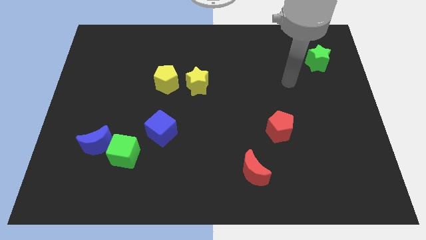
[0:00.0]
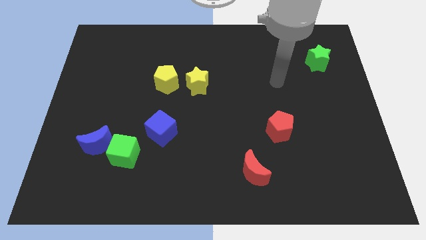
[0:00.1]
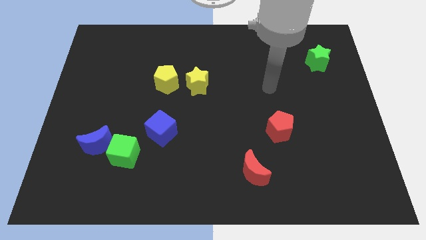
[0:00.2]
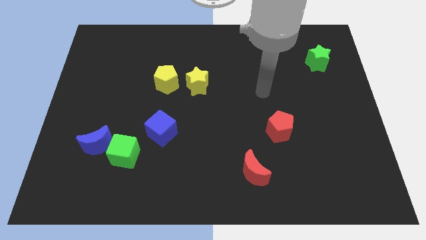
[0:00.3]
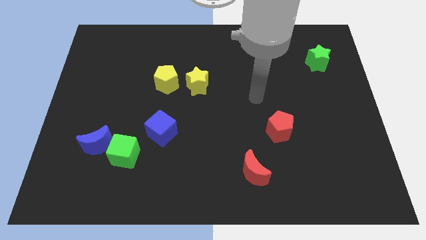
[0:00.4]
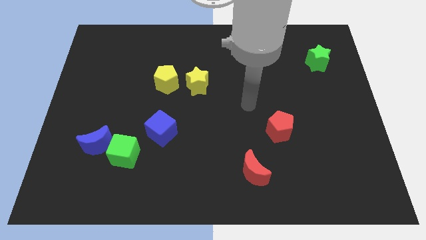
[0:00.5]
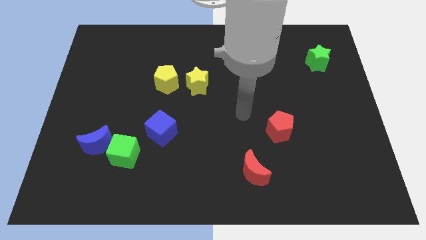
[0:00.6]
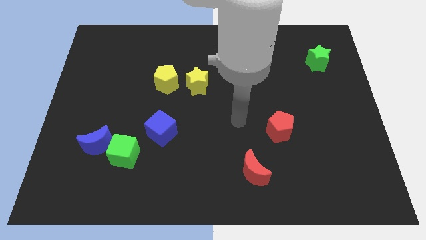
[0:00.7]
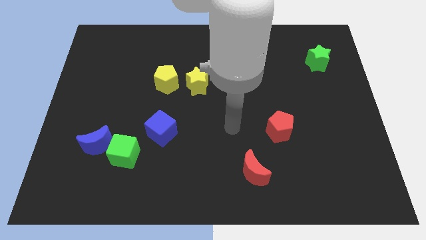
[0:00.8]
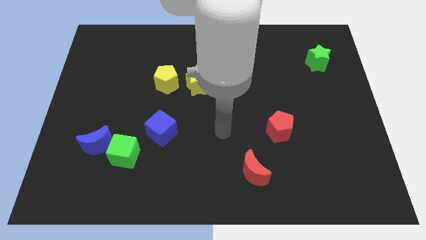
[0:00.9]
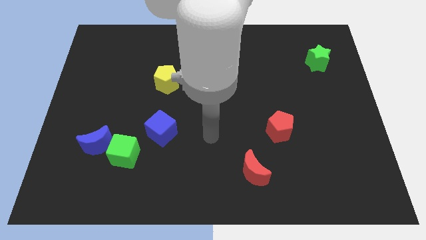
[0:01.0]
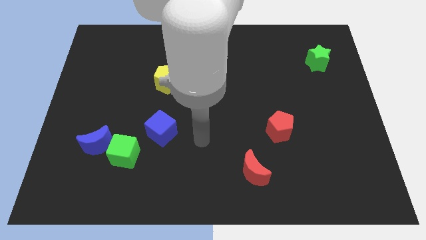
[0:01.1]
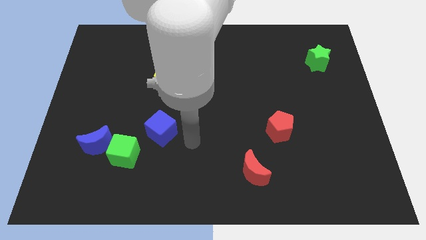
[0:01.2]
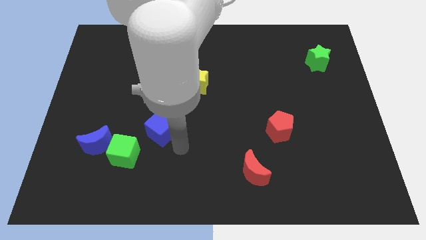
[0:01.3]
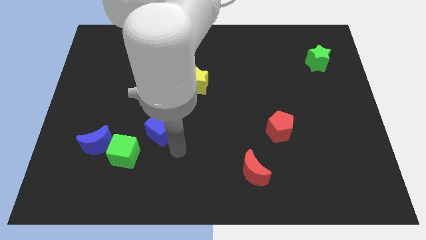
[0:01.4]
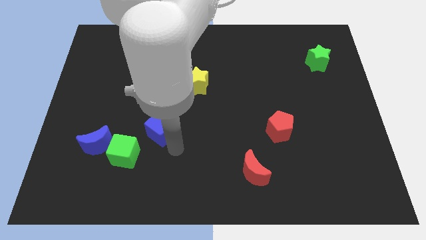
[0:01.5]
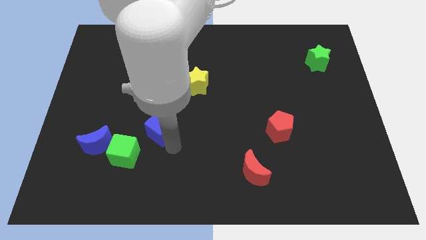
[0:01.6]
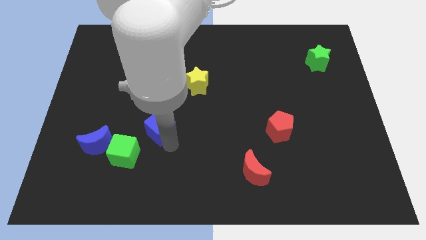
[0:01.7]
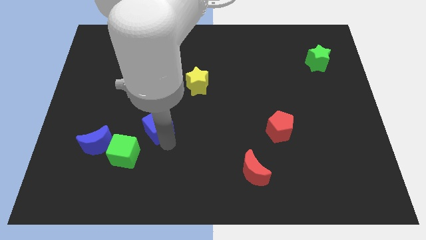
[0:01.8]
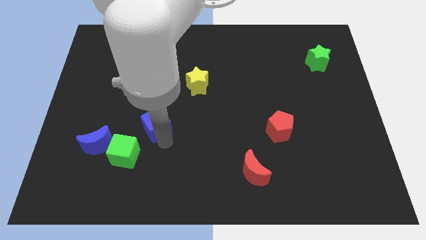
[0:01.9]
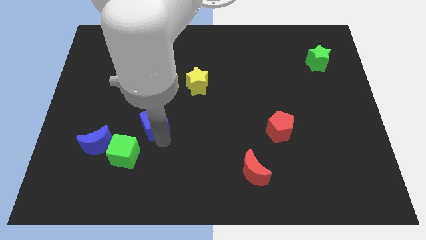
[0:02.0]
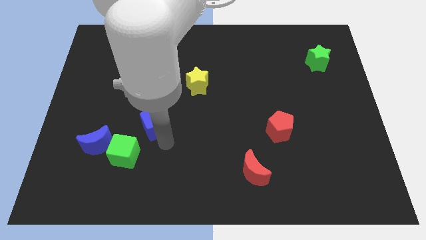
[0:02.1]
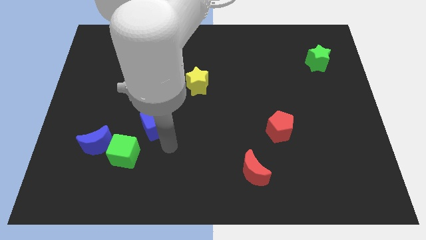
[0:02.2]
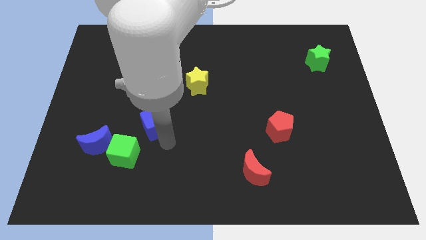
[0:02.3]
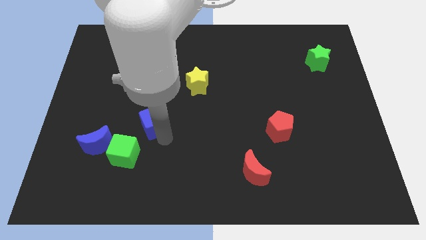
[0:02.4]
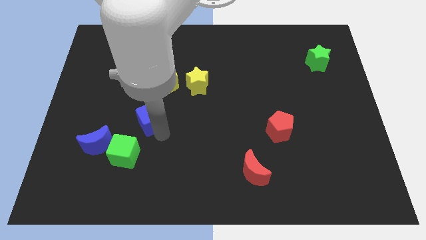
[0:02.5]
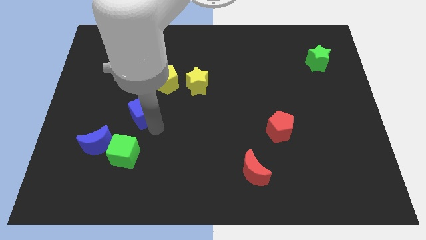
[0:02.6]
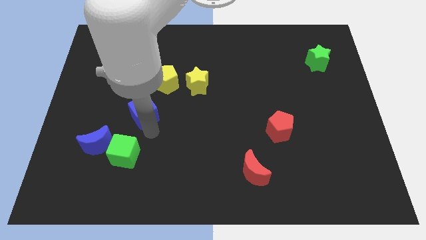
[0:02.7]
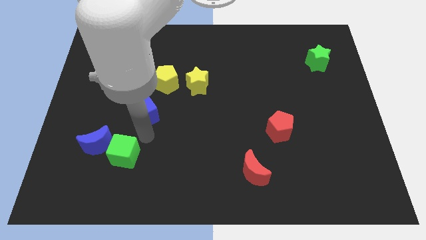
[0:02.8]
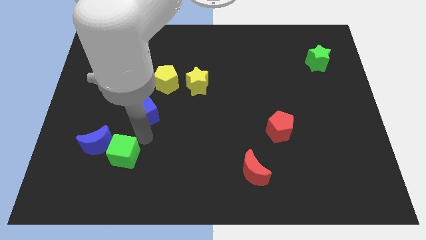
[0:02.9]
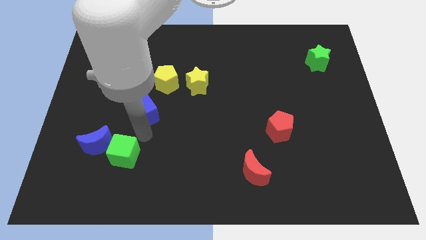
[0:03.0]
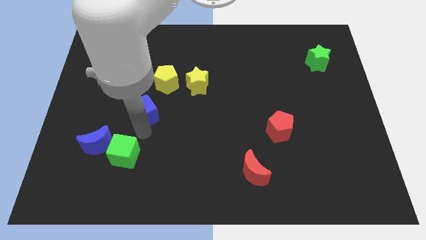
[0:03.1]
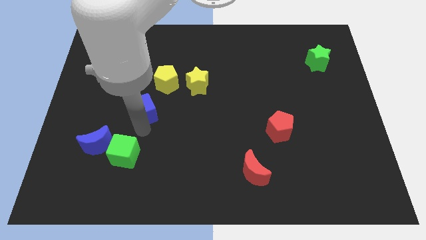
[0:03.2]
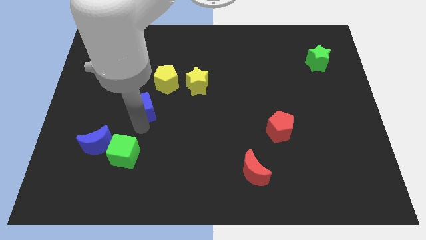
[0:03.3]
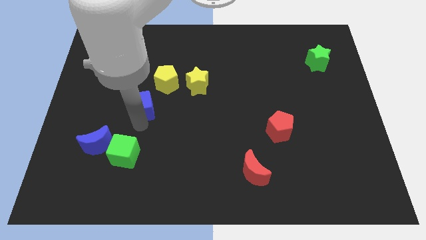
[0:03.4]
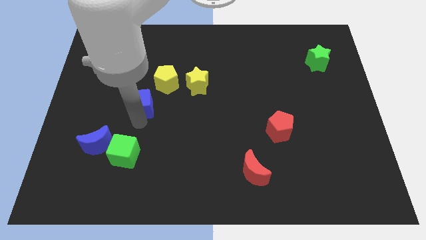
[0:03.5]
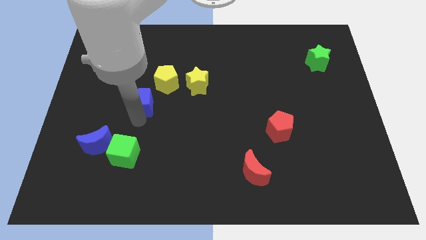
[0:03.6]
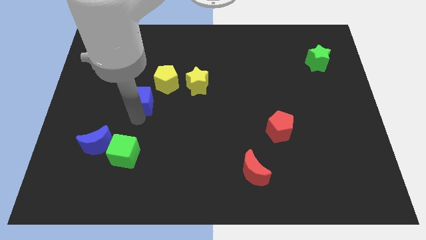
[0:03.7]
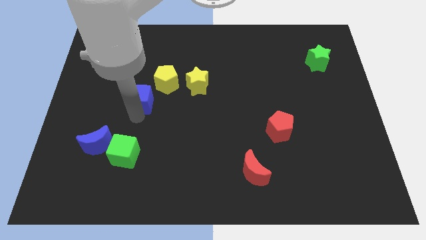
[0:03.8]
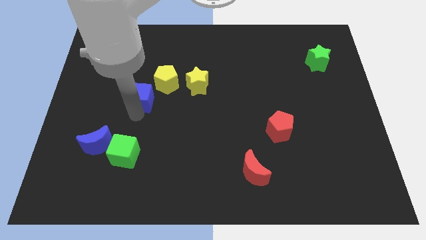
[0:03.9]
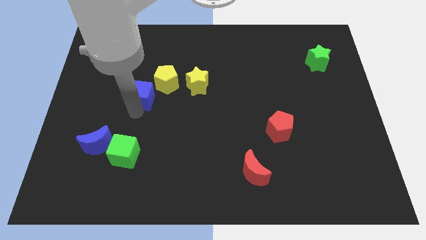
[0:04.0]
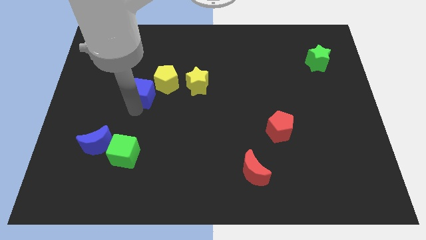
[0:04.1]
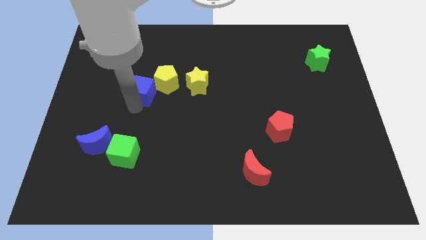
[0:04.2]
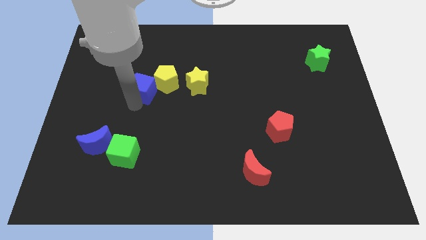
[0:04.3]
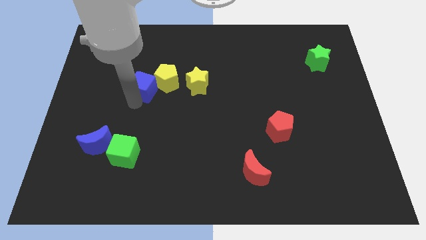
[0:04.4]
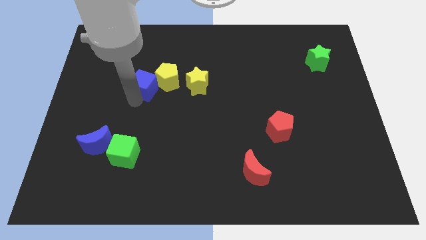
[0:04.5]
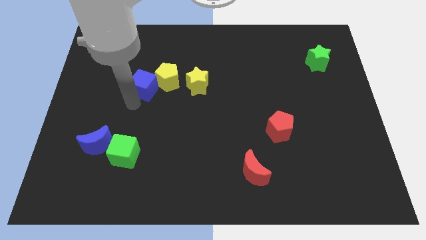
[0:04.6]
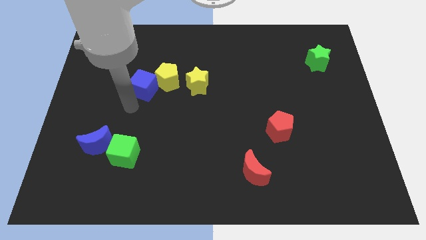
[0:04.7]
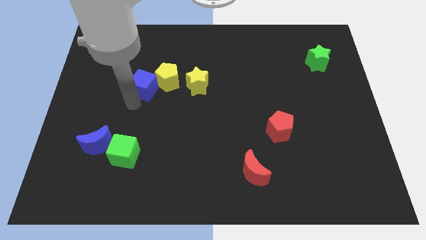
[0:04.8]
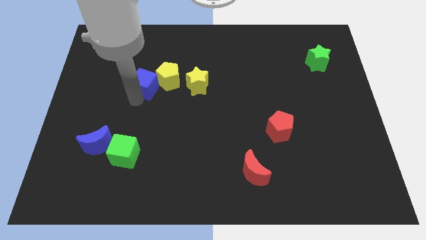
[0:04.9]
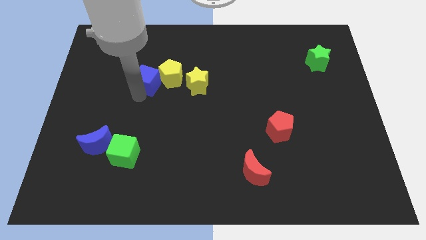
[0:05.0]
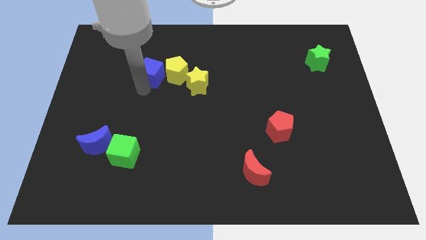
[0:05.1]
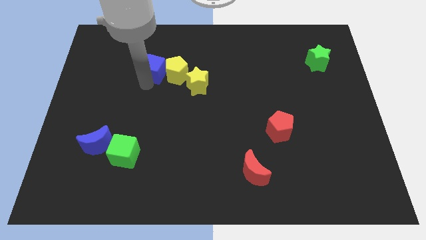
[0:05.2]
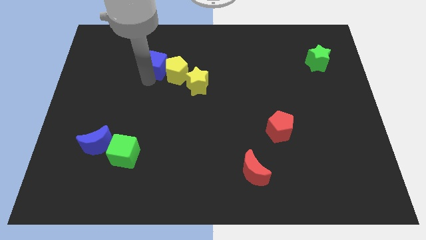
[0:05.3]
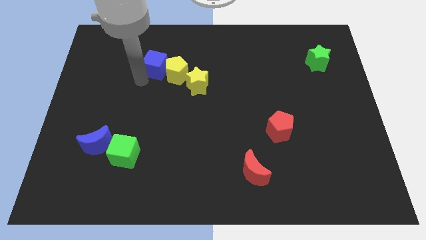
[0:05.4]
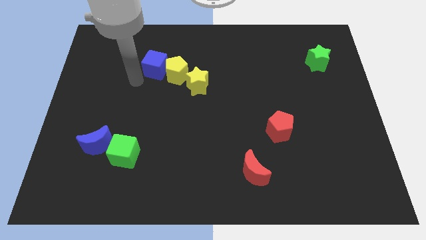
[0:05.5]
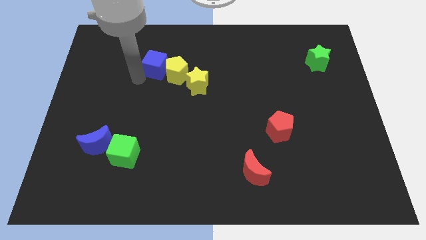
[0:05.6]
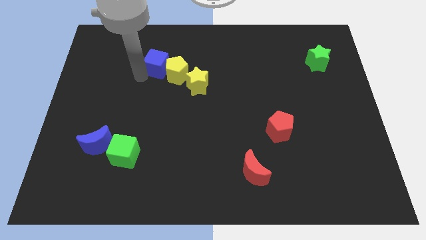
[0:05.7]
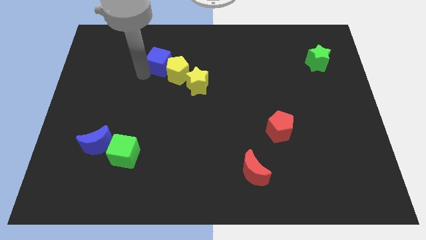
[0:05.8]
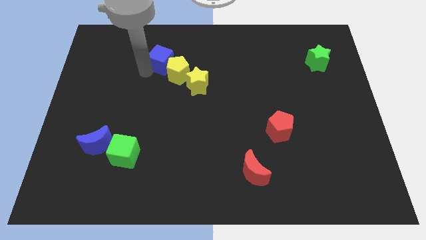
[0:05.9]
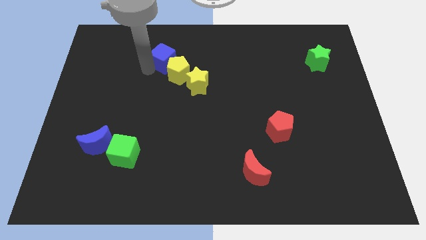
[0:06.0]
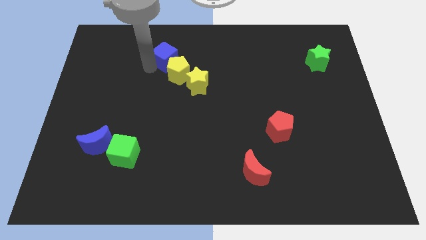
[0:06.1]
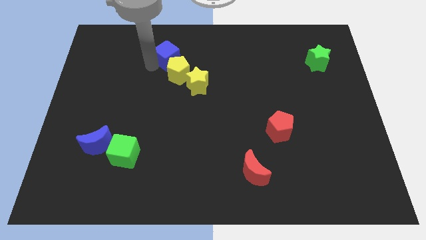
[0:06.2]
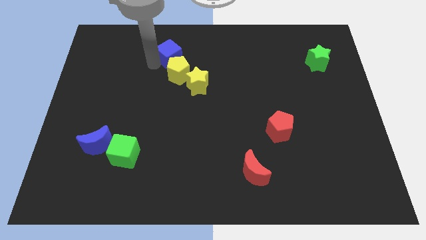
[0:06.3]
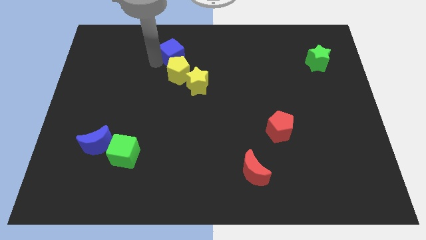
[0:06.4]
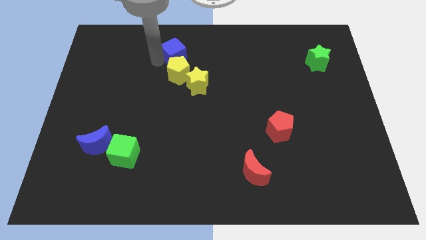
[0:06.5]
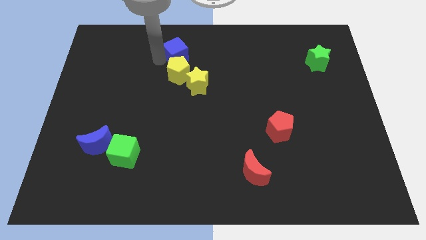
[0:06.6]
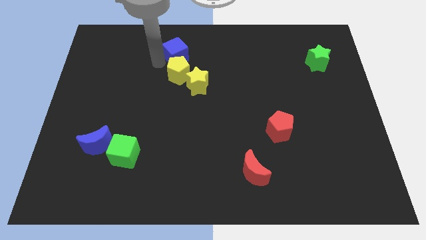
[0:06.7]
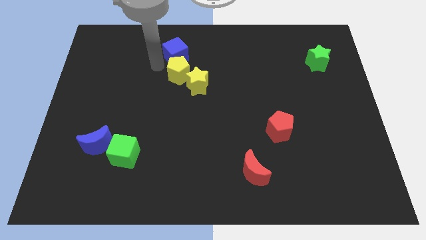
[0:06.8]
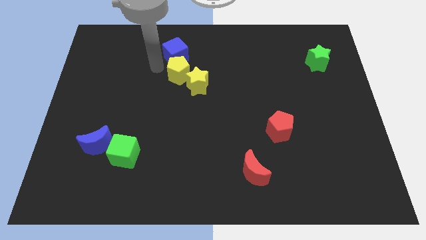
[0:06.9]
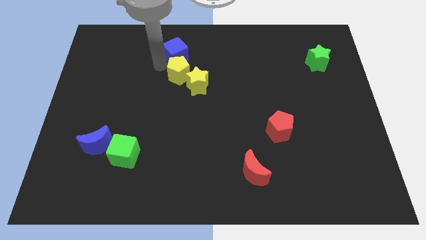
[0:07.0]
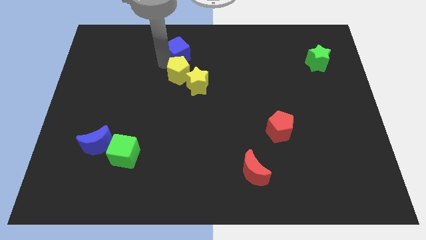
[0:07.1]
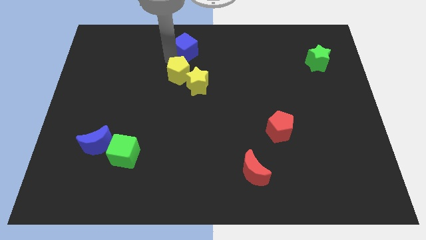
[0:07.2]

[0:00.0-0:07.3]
slide the blue cube to the top side
